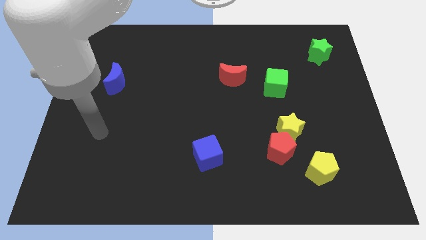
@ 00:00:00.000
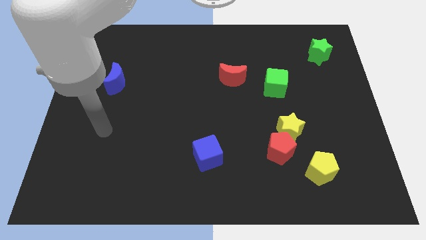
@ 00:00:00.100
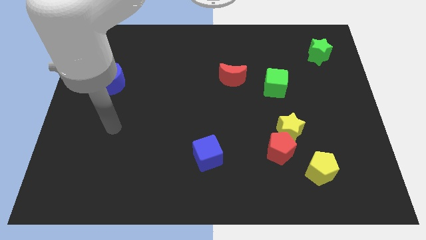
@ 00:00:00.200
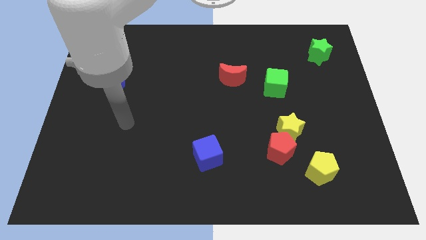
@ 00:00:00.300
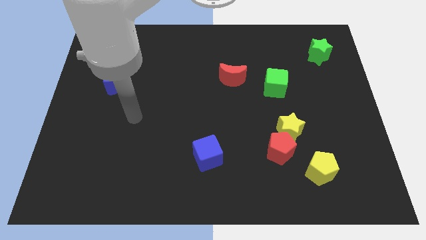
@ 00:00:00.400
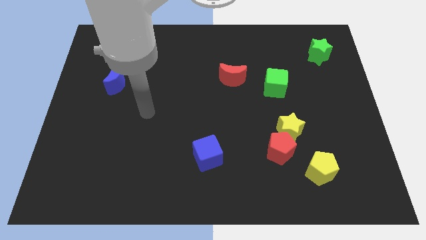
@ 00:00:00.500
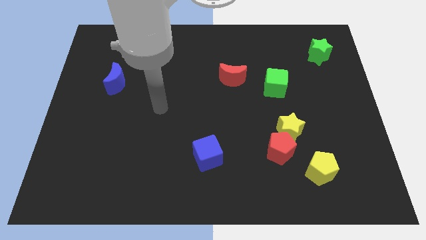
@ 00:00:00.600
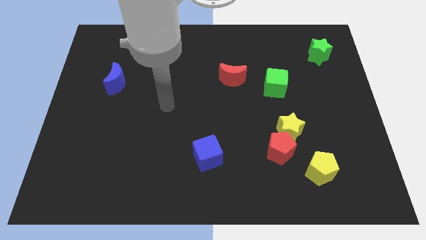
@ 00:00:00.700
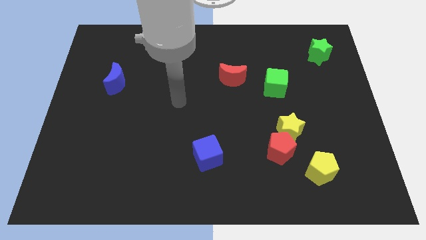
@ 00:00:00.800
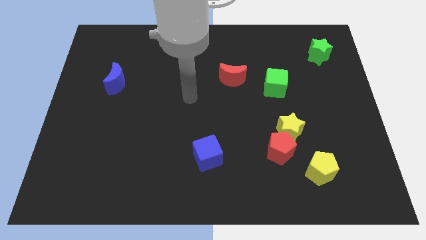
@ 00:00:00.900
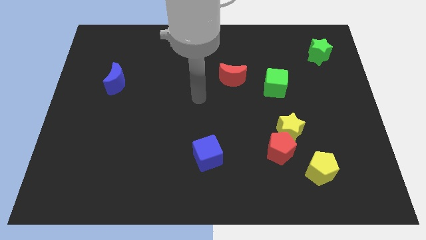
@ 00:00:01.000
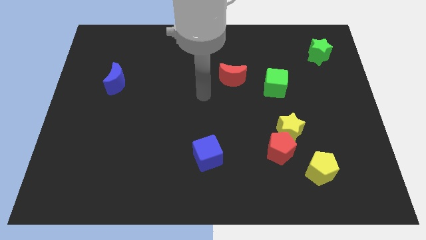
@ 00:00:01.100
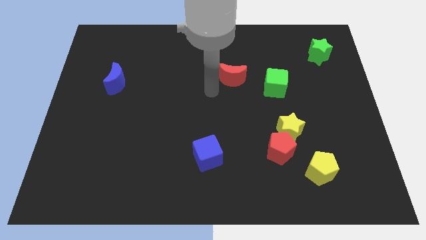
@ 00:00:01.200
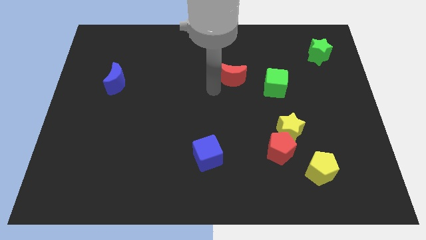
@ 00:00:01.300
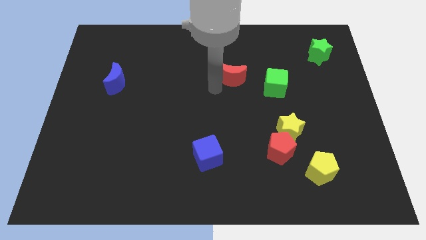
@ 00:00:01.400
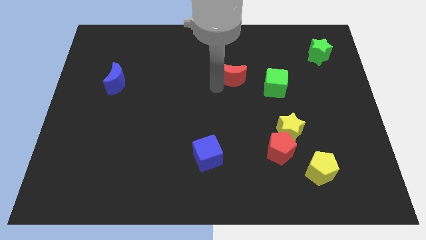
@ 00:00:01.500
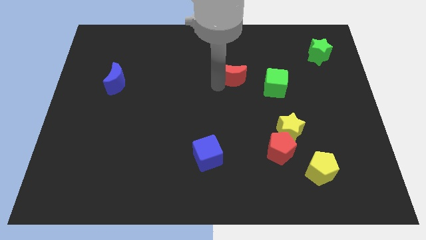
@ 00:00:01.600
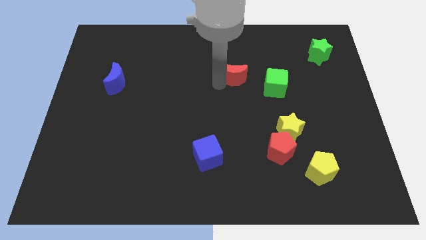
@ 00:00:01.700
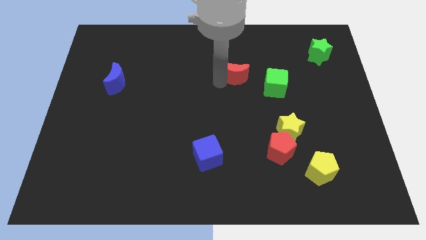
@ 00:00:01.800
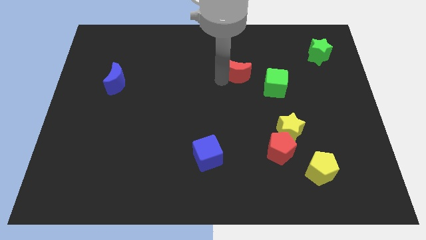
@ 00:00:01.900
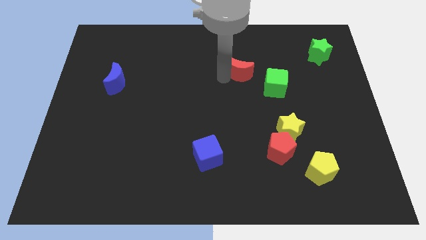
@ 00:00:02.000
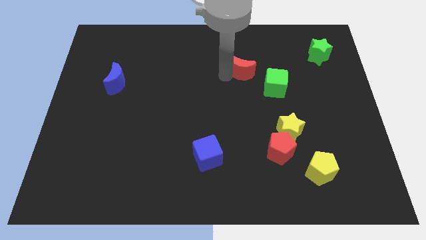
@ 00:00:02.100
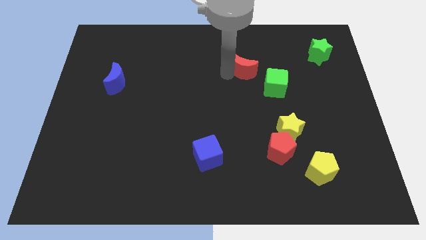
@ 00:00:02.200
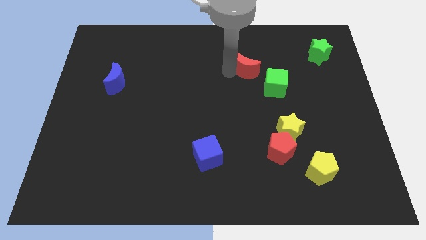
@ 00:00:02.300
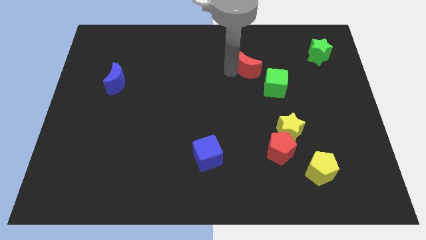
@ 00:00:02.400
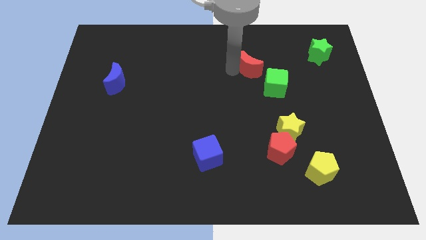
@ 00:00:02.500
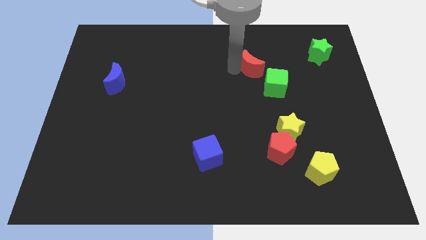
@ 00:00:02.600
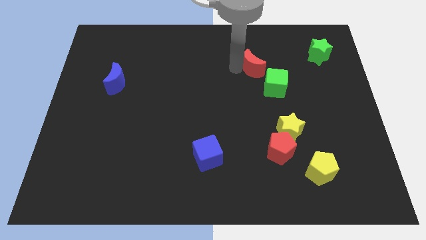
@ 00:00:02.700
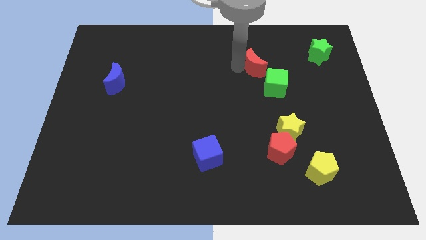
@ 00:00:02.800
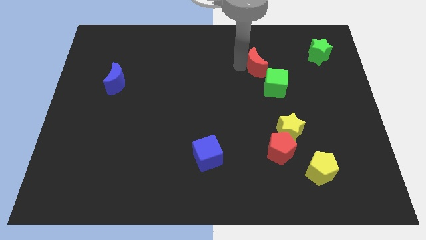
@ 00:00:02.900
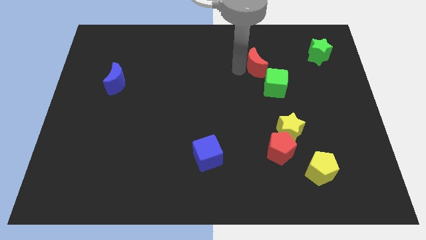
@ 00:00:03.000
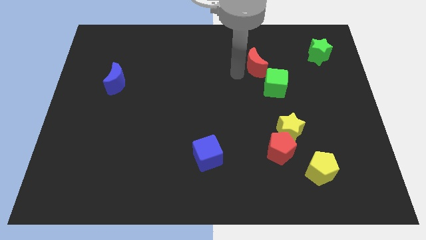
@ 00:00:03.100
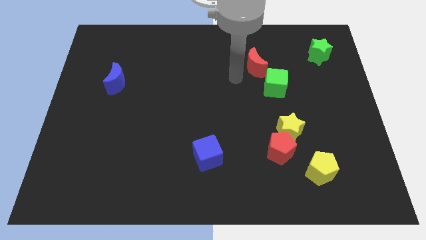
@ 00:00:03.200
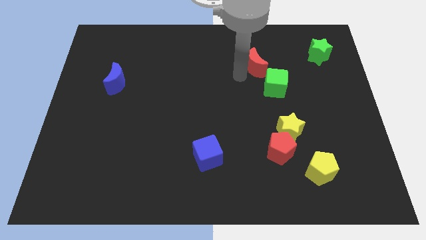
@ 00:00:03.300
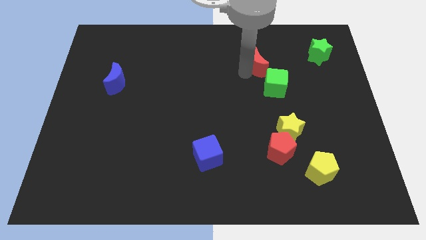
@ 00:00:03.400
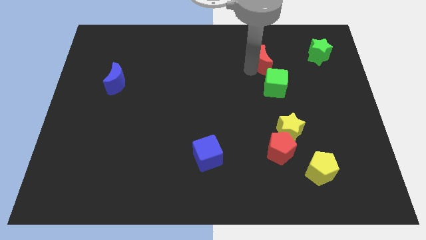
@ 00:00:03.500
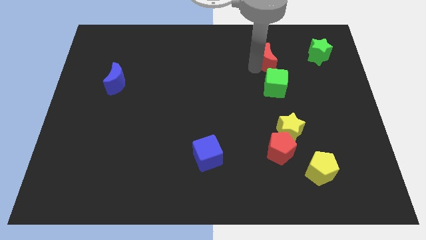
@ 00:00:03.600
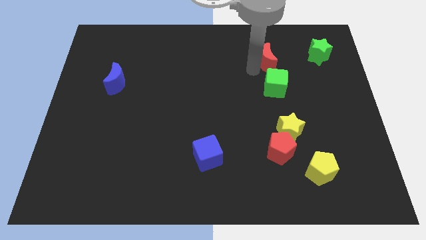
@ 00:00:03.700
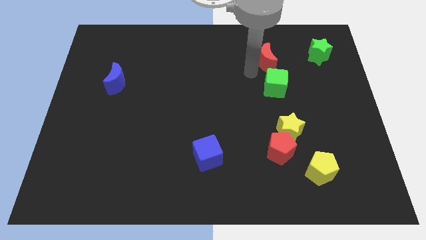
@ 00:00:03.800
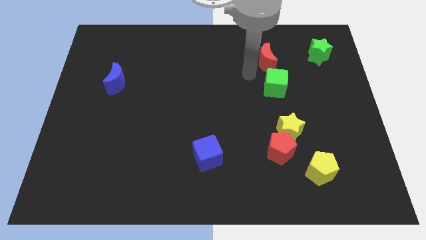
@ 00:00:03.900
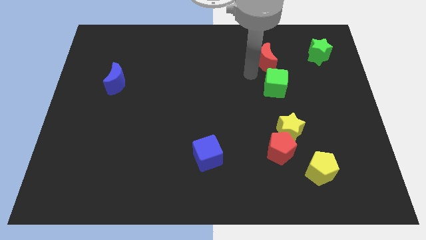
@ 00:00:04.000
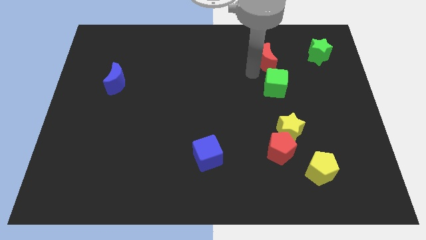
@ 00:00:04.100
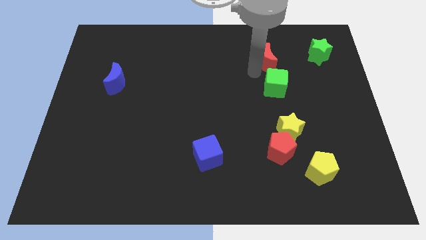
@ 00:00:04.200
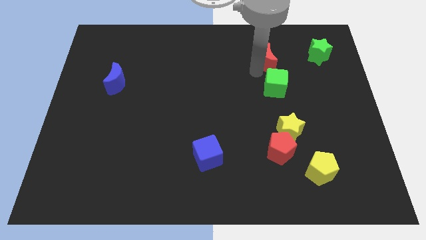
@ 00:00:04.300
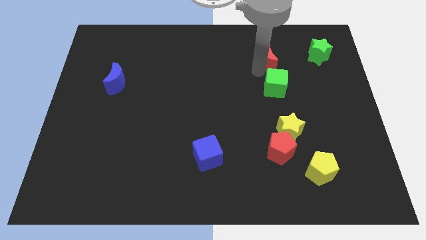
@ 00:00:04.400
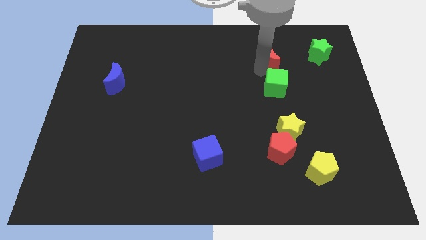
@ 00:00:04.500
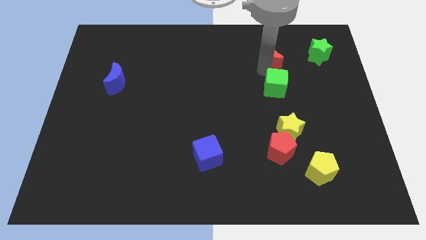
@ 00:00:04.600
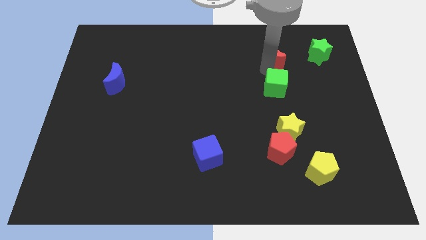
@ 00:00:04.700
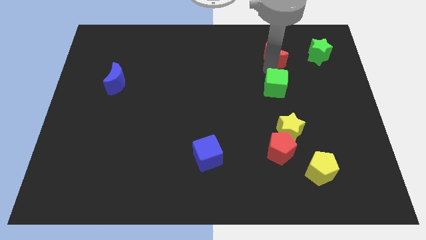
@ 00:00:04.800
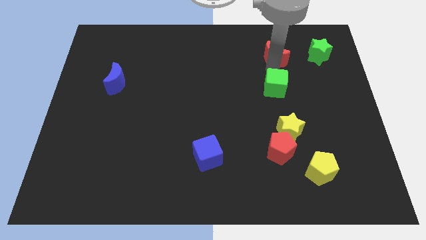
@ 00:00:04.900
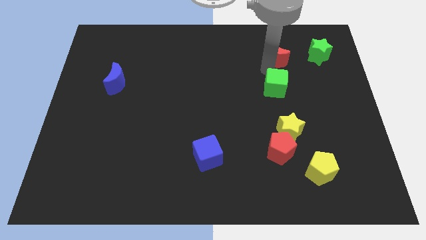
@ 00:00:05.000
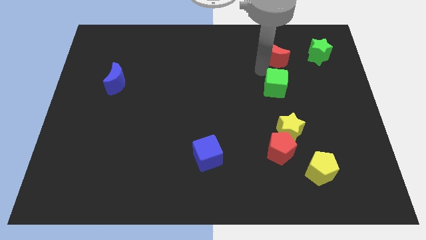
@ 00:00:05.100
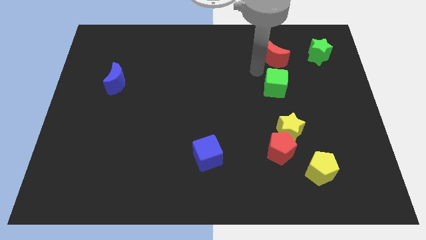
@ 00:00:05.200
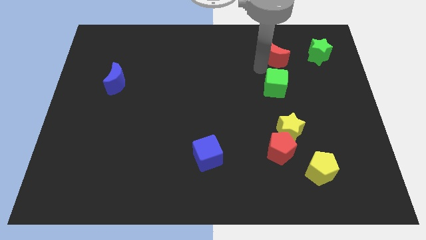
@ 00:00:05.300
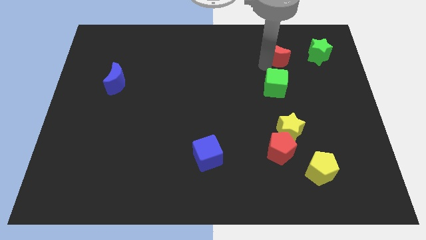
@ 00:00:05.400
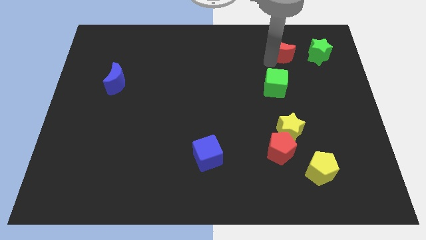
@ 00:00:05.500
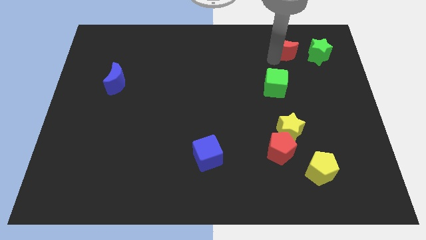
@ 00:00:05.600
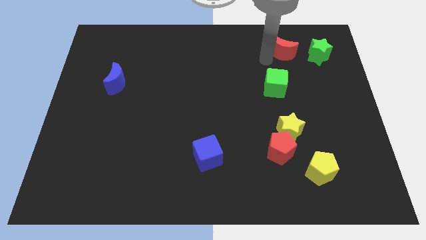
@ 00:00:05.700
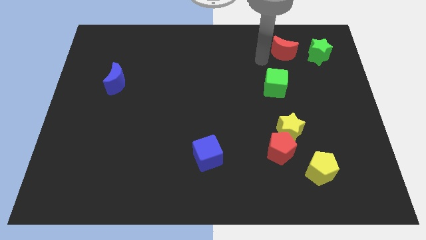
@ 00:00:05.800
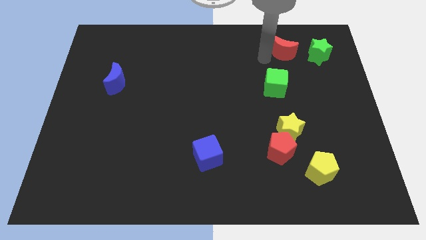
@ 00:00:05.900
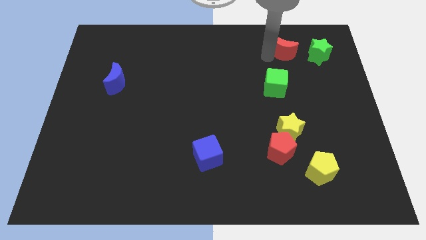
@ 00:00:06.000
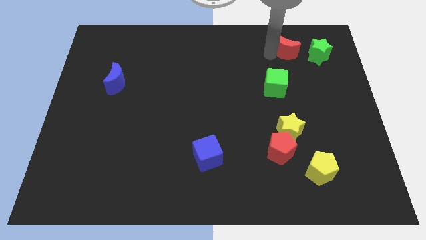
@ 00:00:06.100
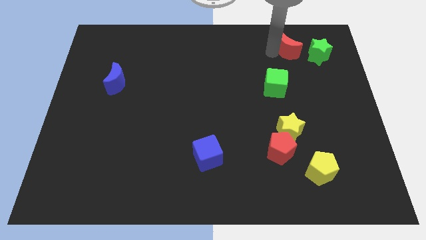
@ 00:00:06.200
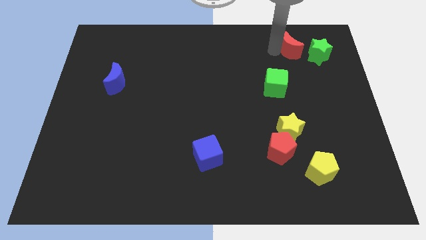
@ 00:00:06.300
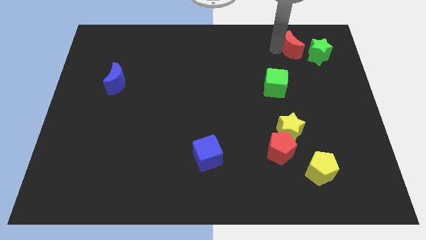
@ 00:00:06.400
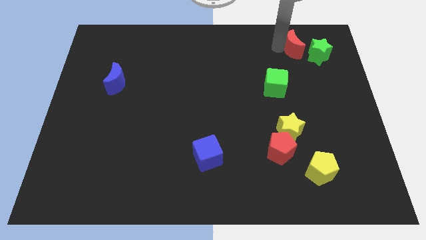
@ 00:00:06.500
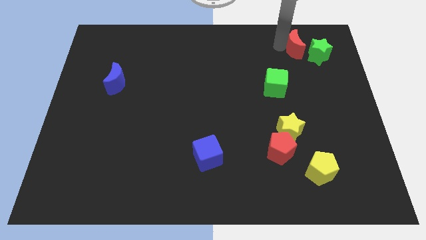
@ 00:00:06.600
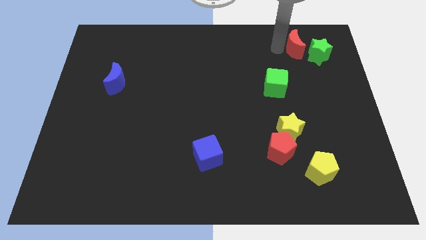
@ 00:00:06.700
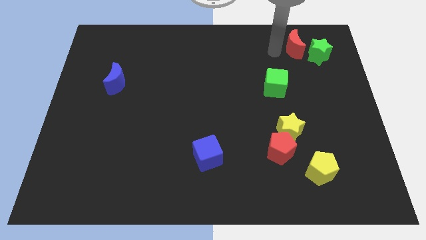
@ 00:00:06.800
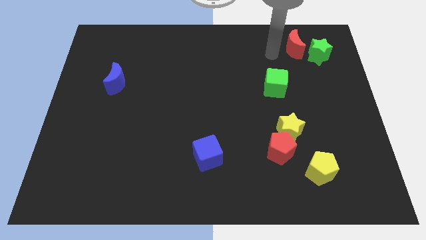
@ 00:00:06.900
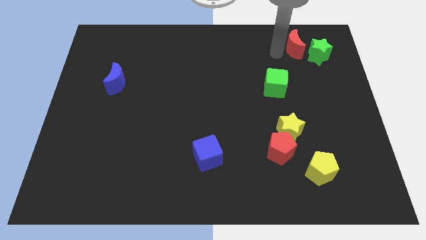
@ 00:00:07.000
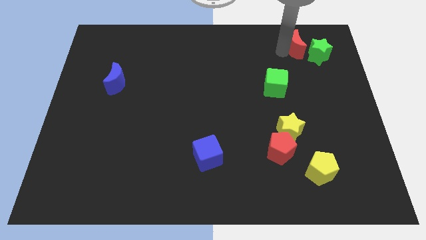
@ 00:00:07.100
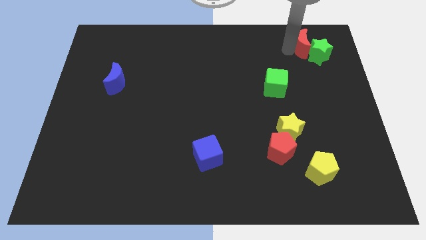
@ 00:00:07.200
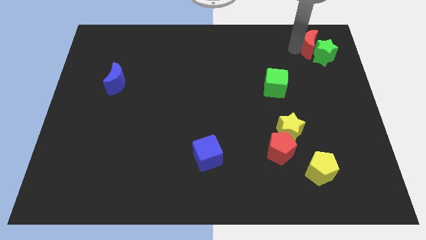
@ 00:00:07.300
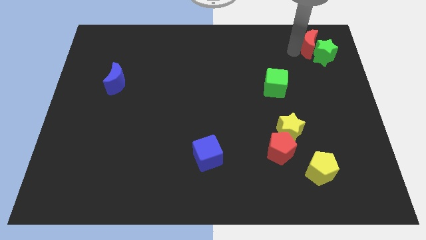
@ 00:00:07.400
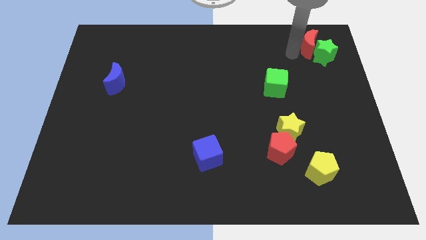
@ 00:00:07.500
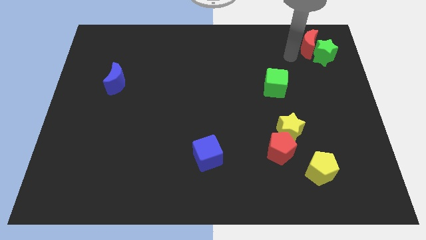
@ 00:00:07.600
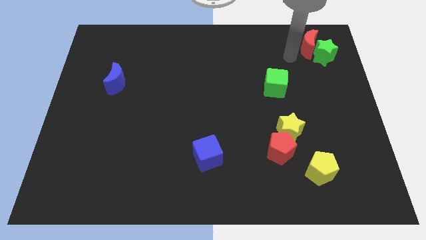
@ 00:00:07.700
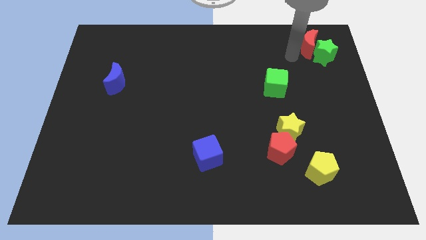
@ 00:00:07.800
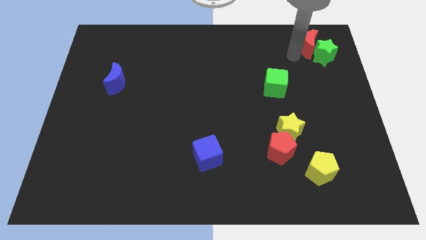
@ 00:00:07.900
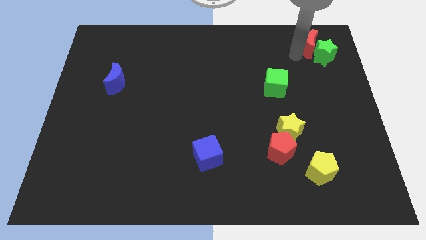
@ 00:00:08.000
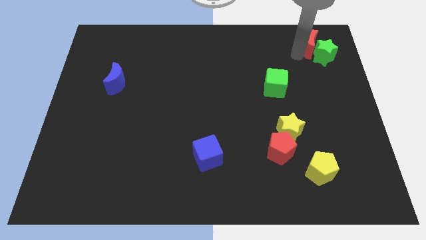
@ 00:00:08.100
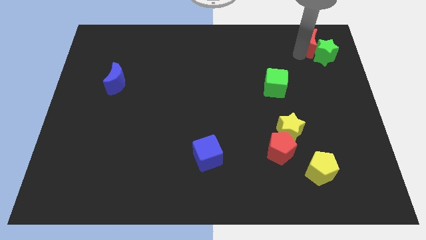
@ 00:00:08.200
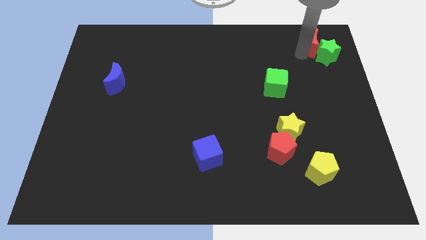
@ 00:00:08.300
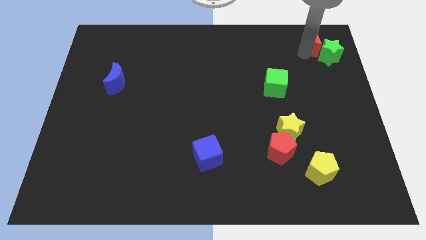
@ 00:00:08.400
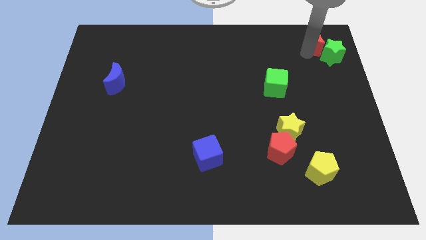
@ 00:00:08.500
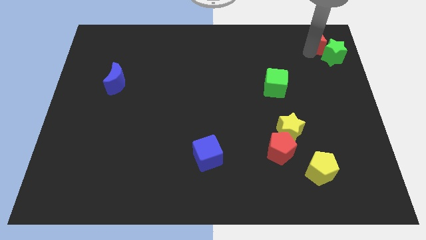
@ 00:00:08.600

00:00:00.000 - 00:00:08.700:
slide the red moon to the upper right corner
